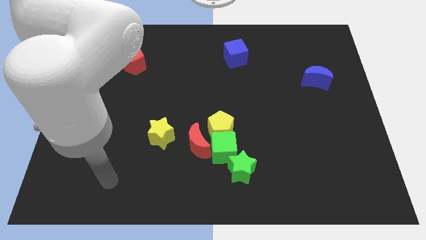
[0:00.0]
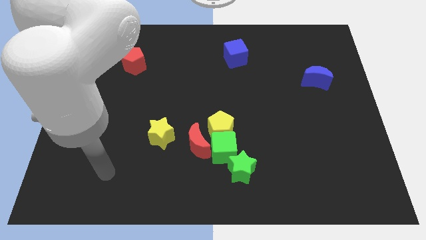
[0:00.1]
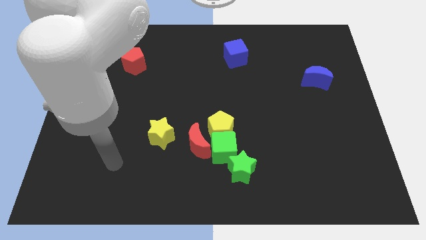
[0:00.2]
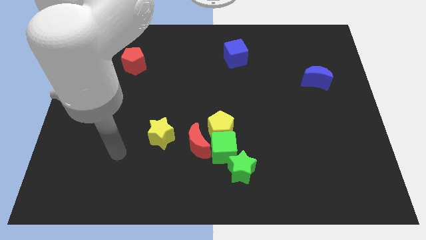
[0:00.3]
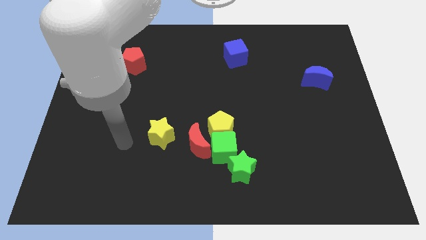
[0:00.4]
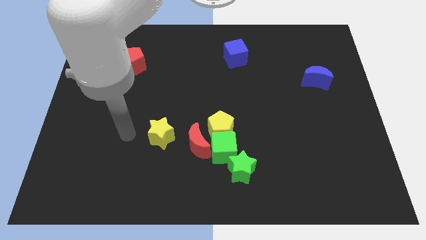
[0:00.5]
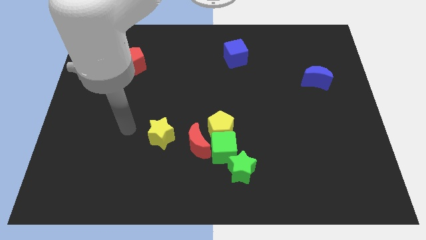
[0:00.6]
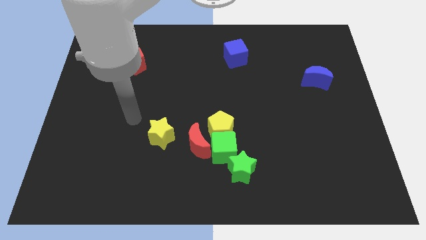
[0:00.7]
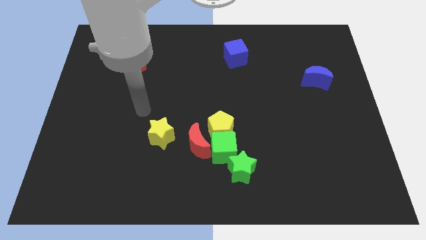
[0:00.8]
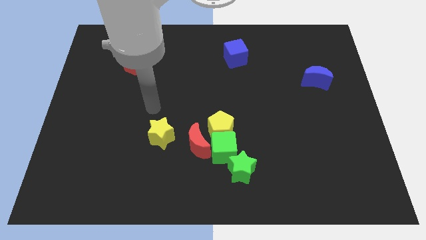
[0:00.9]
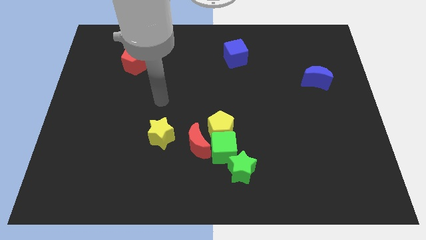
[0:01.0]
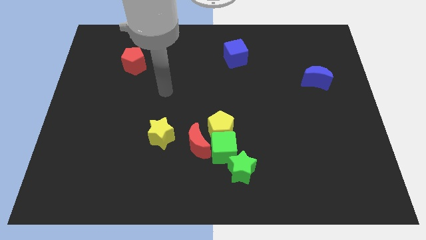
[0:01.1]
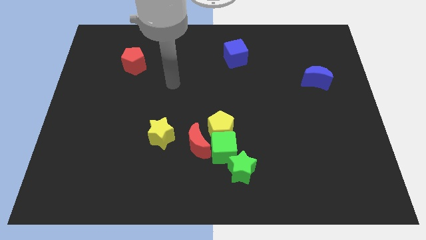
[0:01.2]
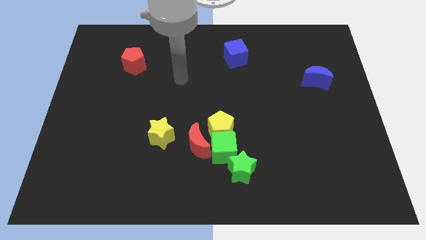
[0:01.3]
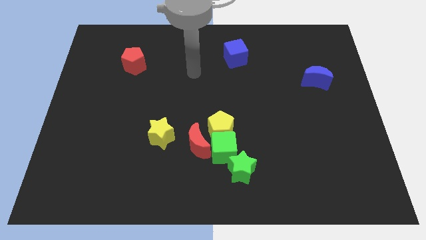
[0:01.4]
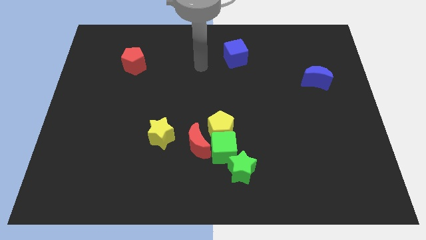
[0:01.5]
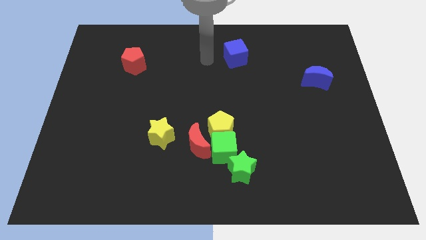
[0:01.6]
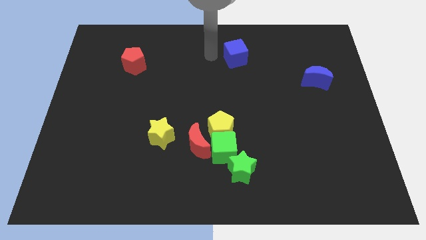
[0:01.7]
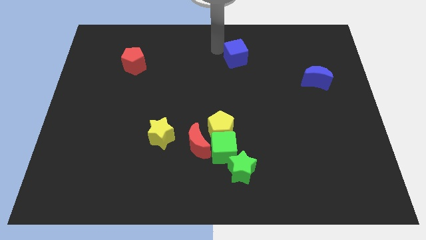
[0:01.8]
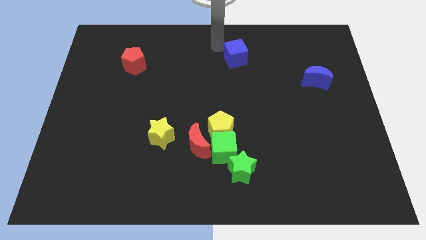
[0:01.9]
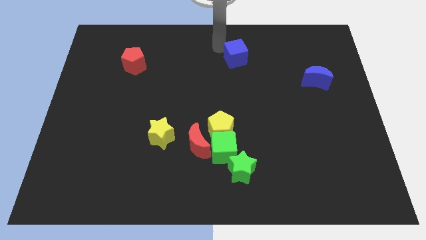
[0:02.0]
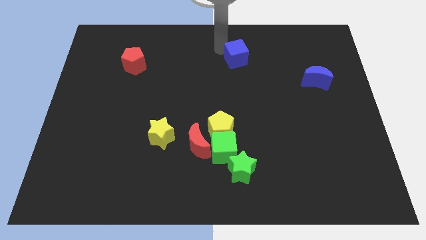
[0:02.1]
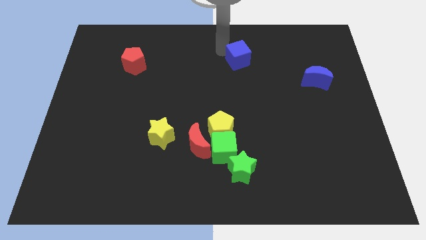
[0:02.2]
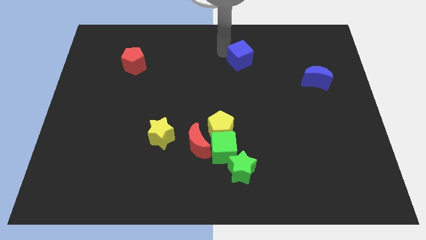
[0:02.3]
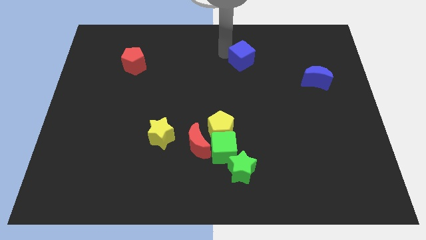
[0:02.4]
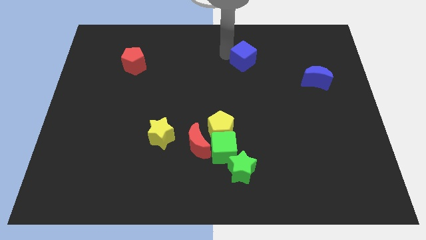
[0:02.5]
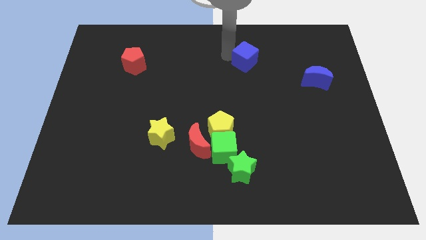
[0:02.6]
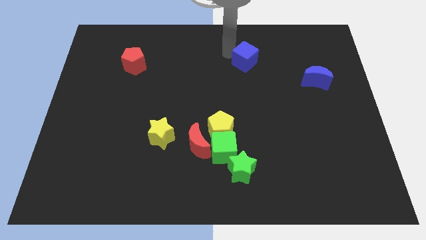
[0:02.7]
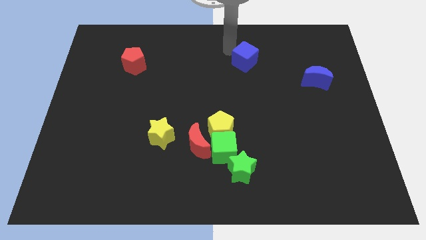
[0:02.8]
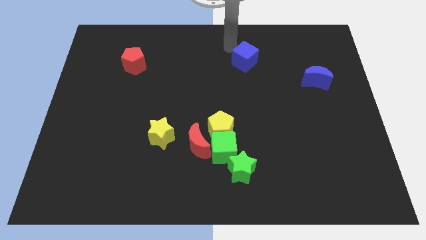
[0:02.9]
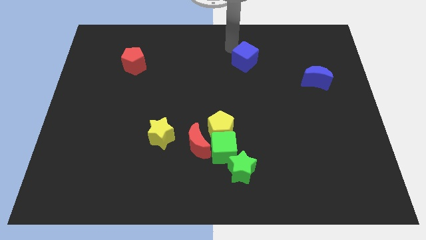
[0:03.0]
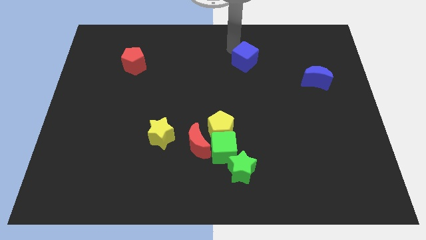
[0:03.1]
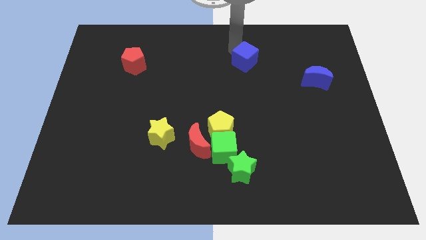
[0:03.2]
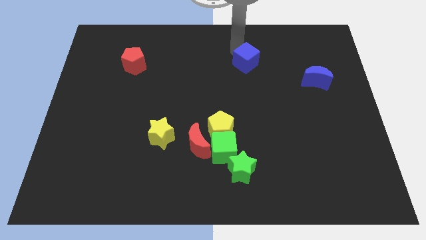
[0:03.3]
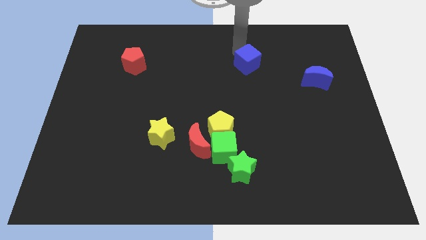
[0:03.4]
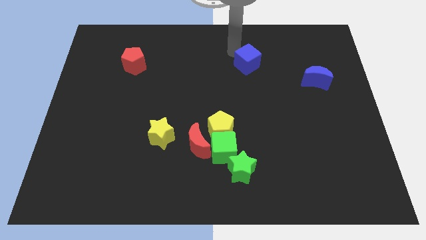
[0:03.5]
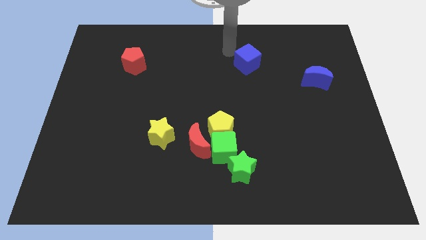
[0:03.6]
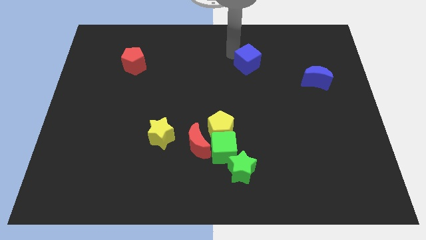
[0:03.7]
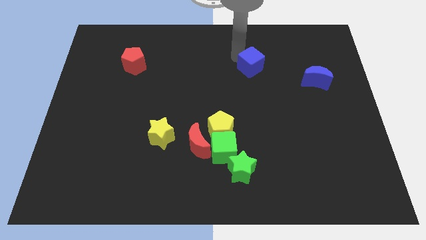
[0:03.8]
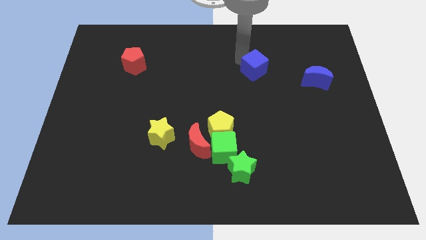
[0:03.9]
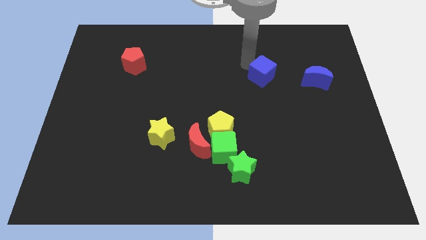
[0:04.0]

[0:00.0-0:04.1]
slightly slide the blue cube diagonally down and right

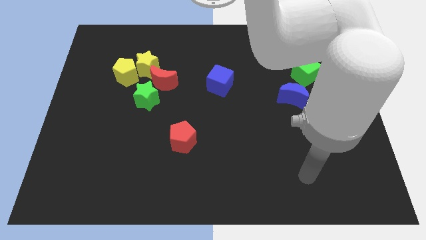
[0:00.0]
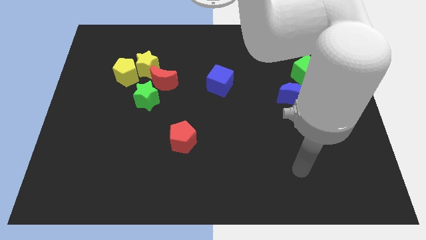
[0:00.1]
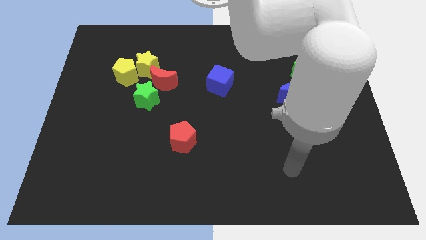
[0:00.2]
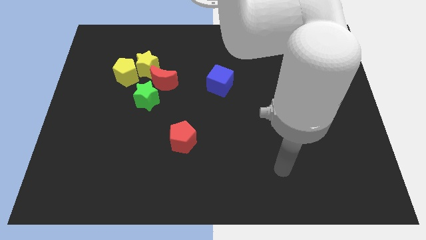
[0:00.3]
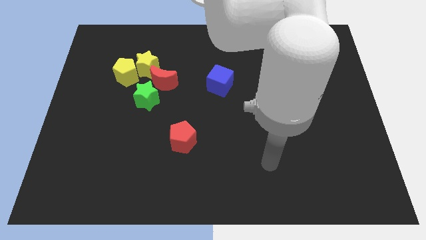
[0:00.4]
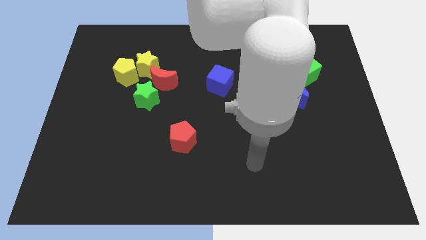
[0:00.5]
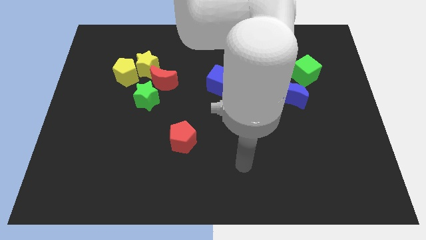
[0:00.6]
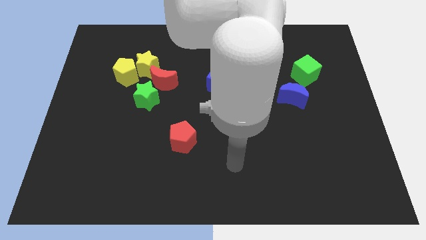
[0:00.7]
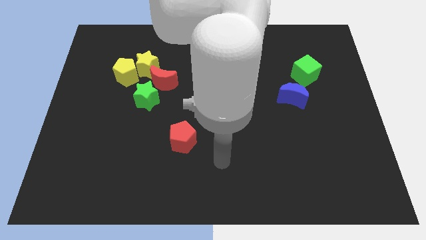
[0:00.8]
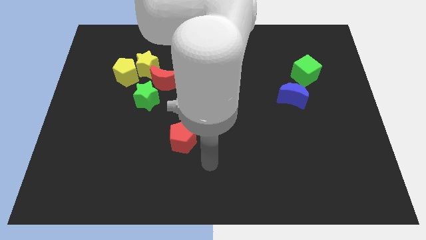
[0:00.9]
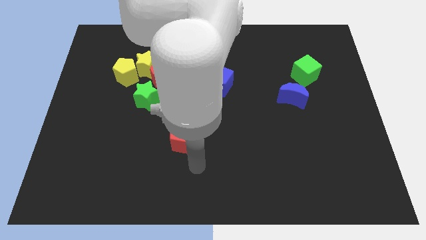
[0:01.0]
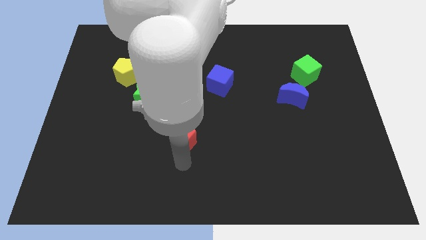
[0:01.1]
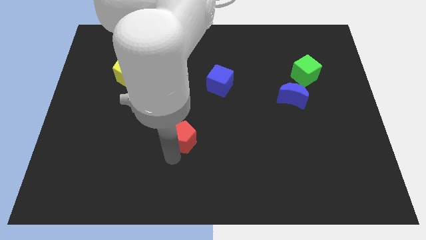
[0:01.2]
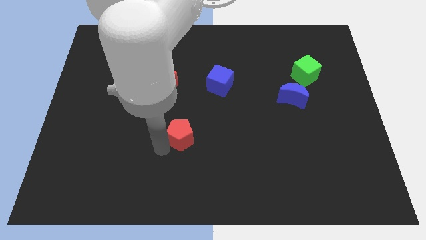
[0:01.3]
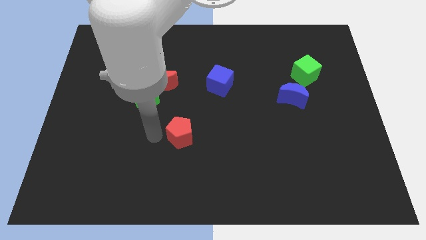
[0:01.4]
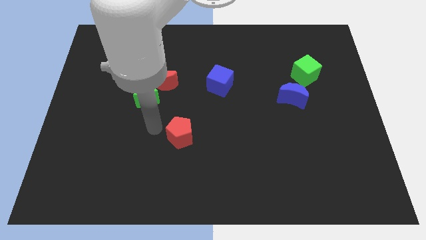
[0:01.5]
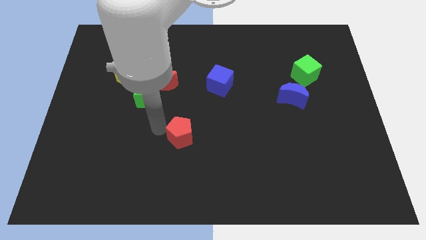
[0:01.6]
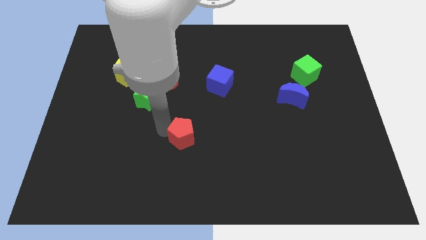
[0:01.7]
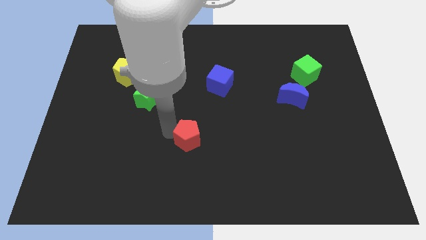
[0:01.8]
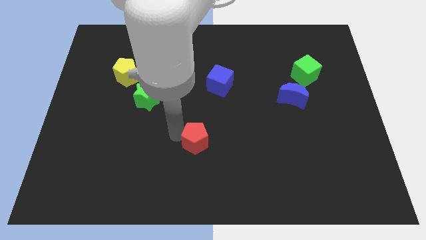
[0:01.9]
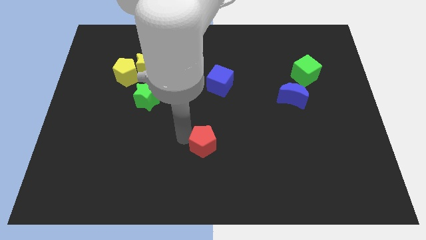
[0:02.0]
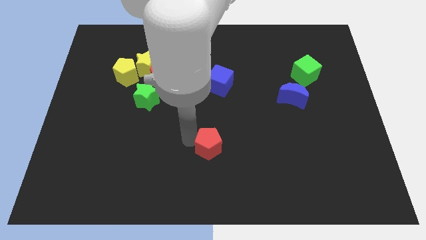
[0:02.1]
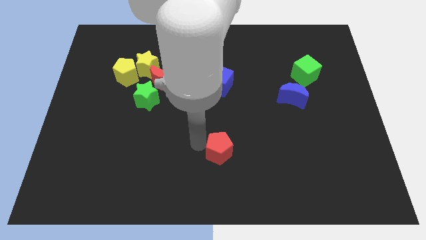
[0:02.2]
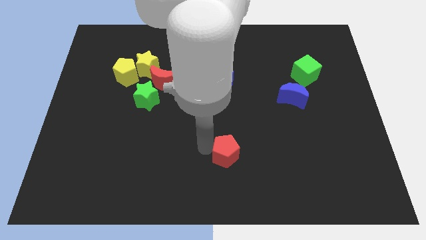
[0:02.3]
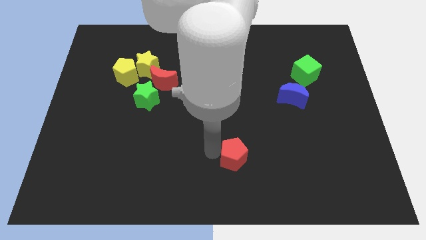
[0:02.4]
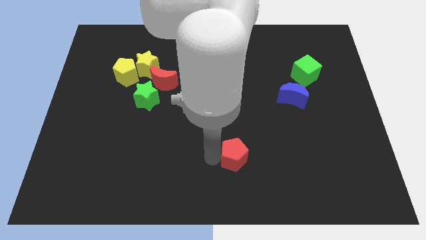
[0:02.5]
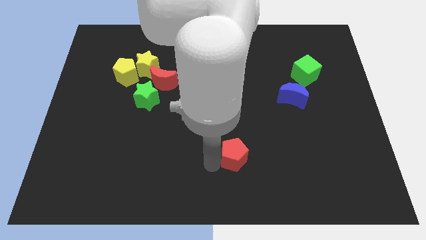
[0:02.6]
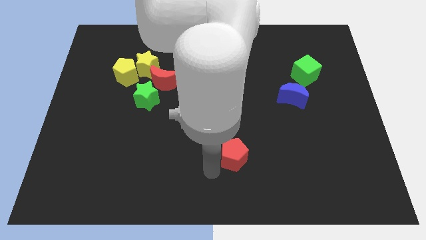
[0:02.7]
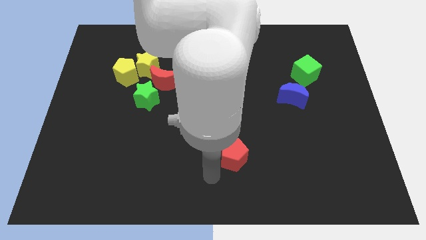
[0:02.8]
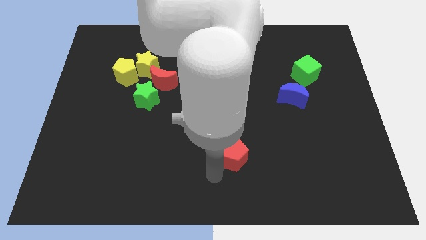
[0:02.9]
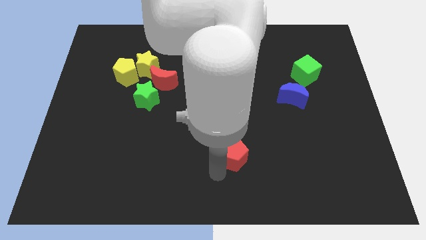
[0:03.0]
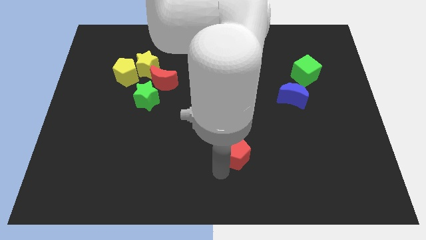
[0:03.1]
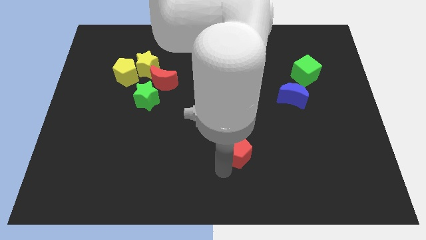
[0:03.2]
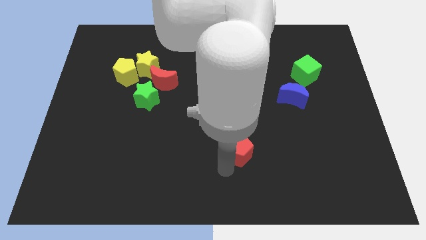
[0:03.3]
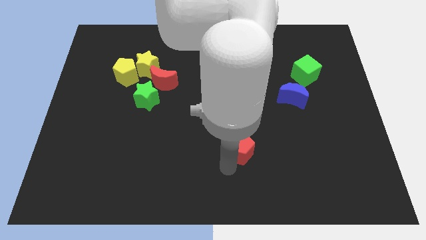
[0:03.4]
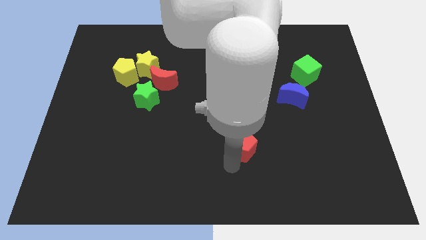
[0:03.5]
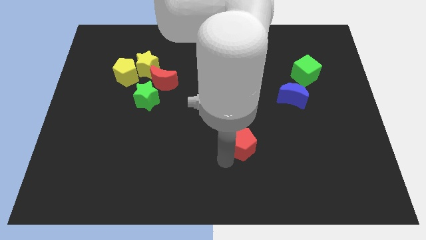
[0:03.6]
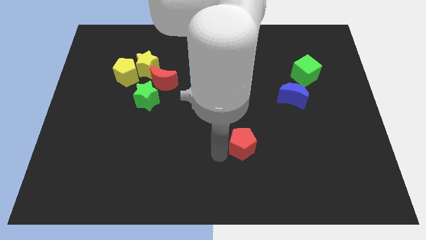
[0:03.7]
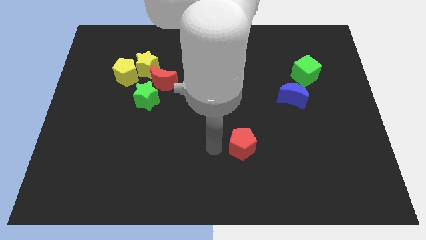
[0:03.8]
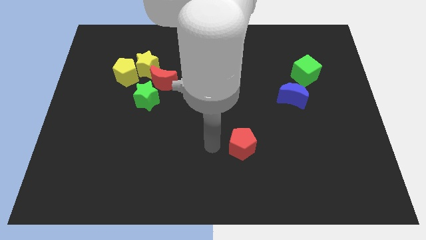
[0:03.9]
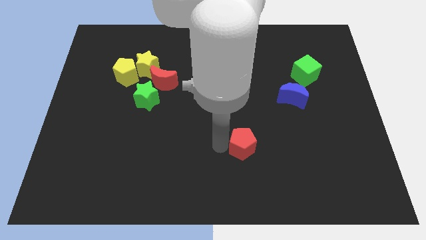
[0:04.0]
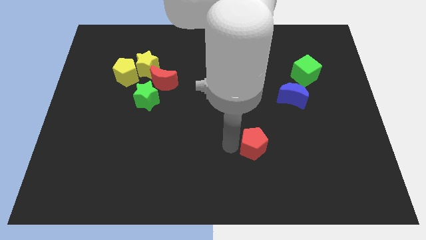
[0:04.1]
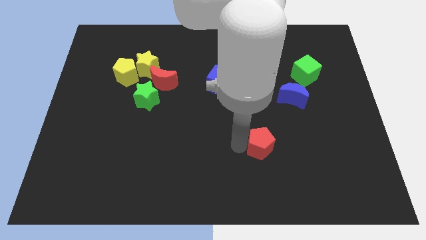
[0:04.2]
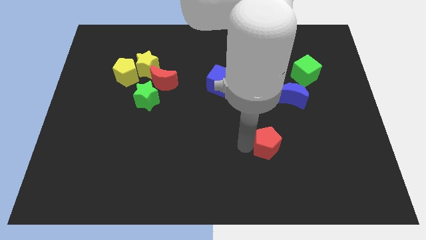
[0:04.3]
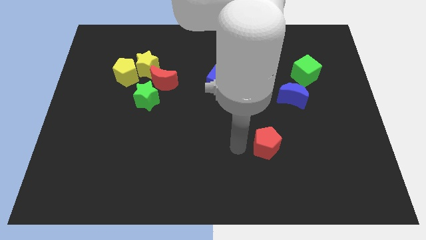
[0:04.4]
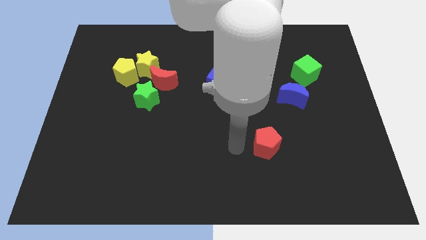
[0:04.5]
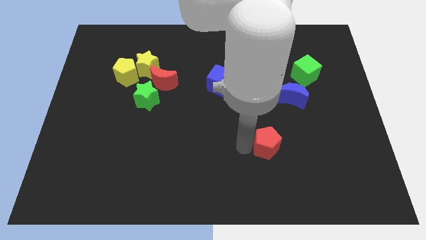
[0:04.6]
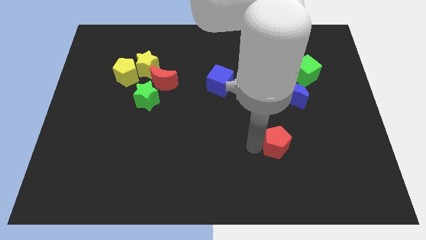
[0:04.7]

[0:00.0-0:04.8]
slide the red pentagon right
